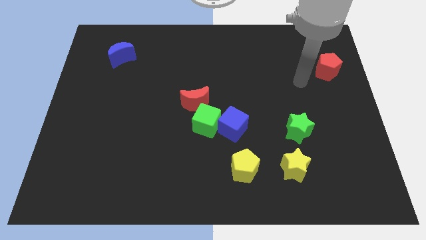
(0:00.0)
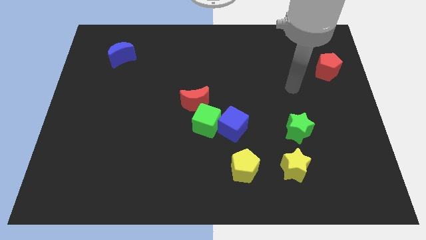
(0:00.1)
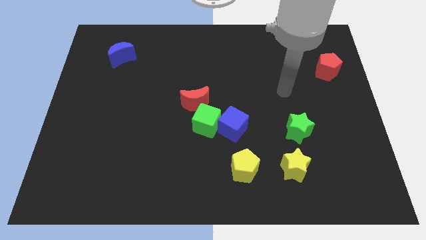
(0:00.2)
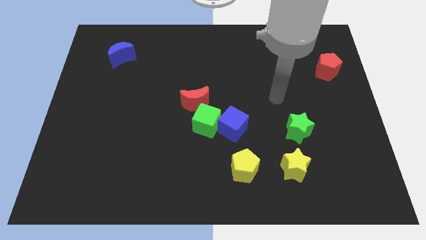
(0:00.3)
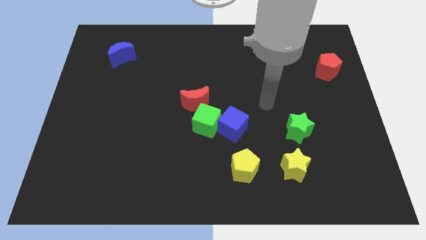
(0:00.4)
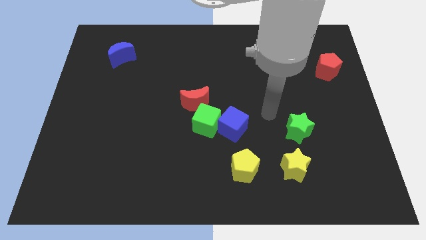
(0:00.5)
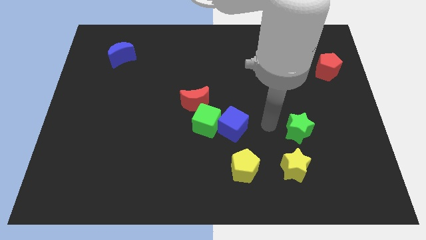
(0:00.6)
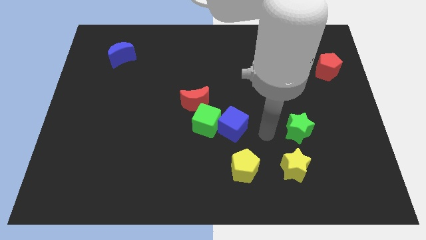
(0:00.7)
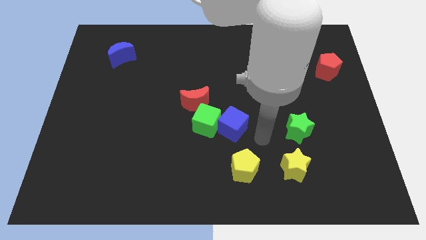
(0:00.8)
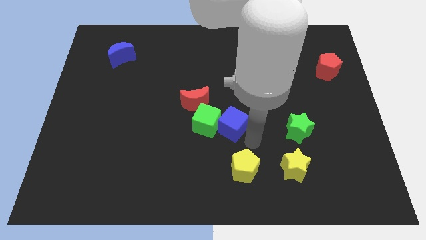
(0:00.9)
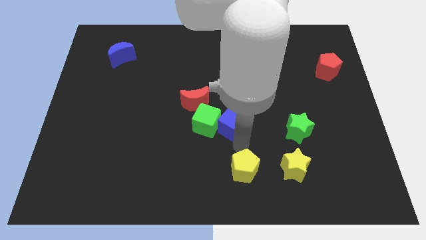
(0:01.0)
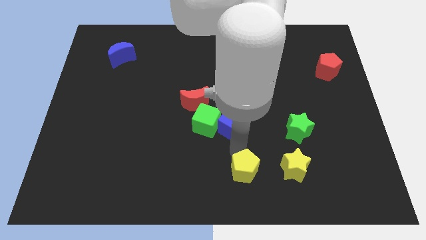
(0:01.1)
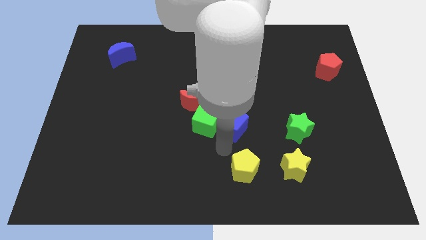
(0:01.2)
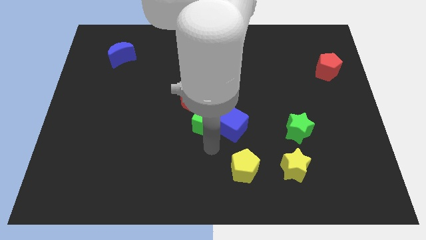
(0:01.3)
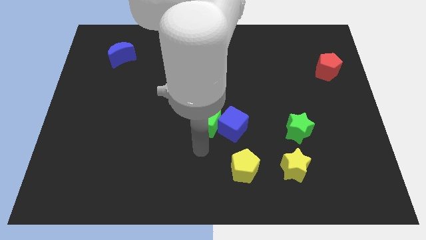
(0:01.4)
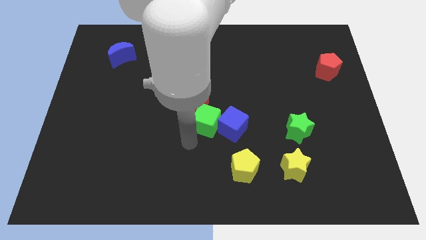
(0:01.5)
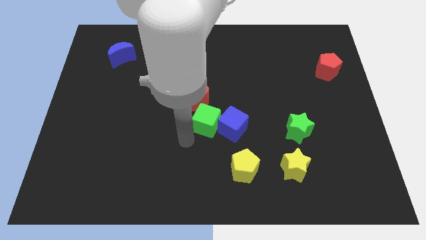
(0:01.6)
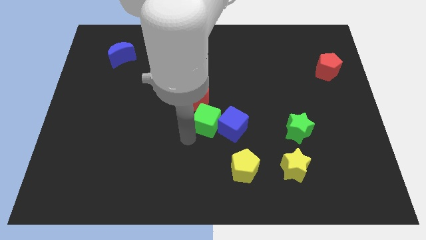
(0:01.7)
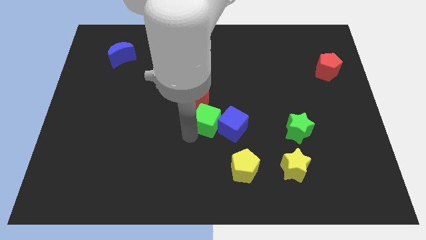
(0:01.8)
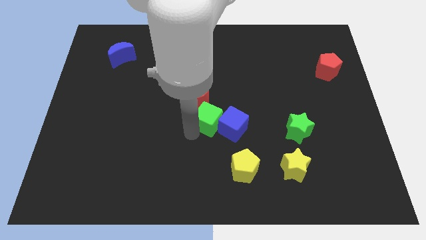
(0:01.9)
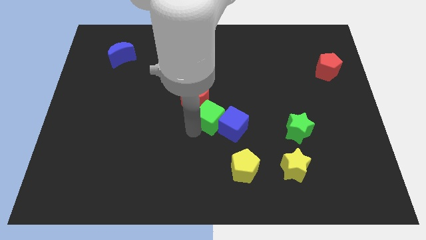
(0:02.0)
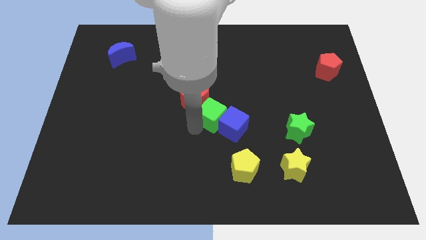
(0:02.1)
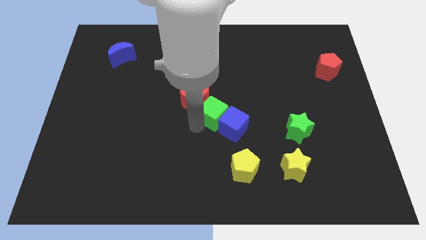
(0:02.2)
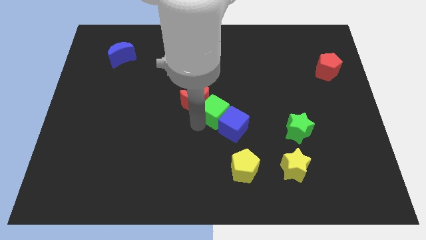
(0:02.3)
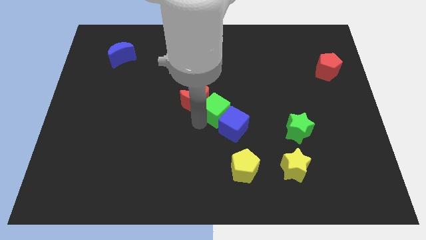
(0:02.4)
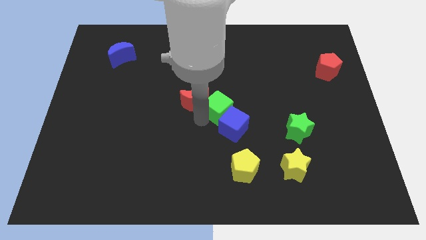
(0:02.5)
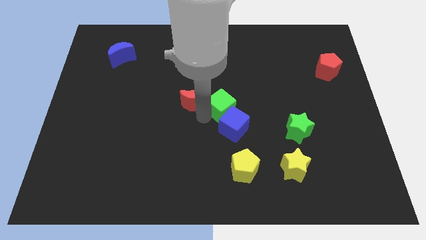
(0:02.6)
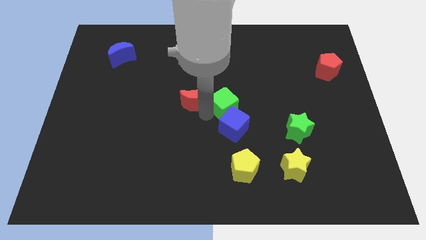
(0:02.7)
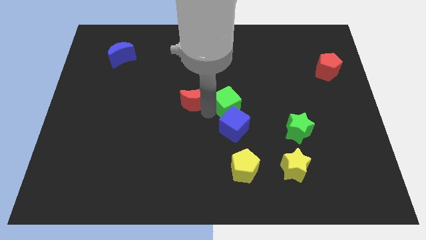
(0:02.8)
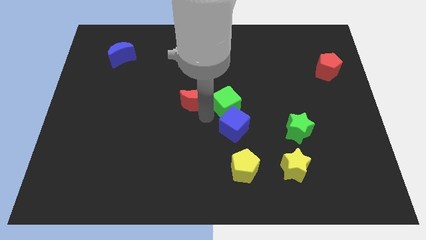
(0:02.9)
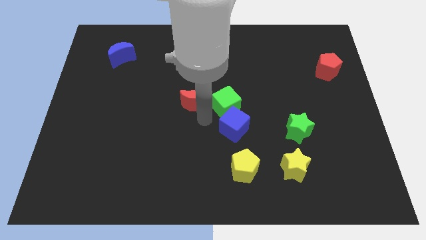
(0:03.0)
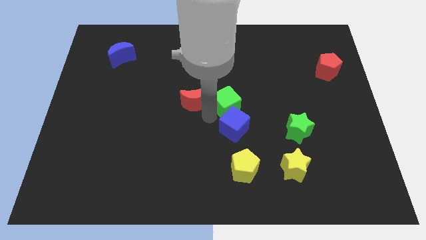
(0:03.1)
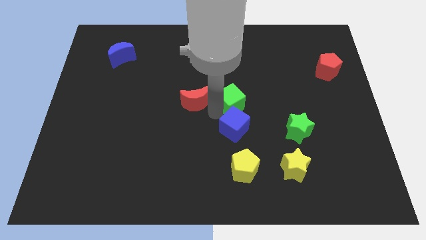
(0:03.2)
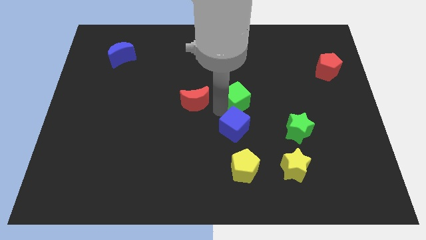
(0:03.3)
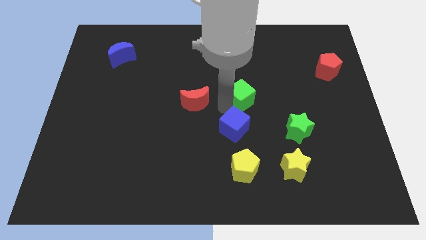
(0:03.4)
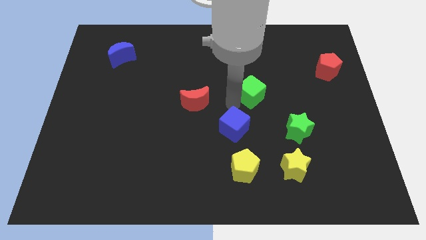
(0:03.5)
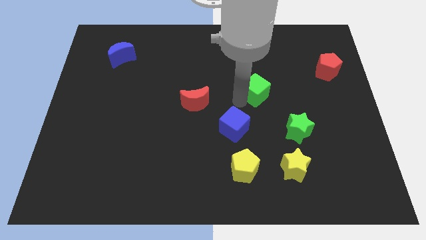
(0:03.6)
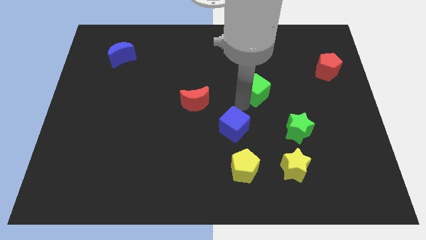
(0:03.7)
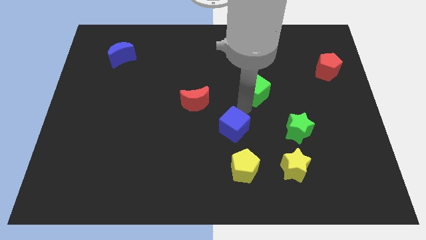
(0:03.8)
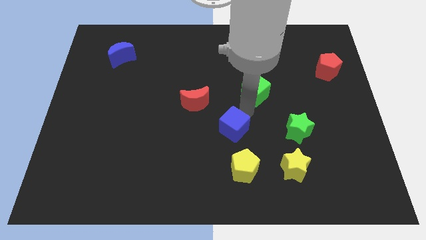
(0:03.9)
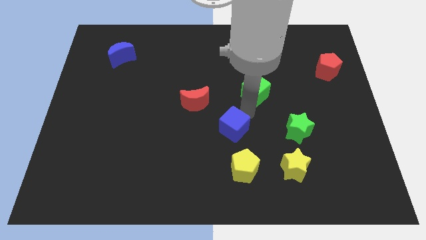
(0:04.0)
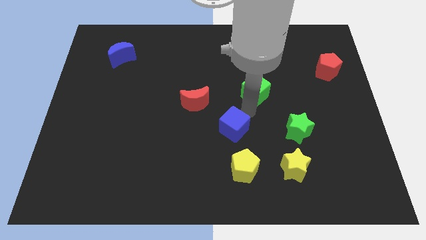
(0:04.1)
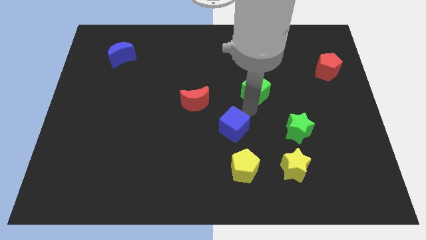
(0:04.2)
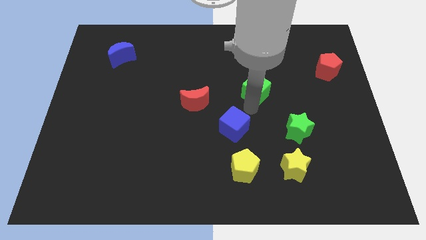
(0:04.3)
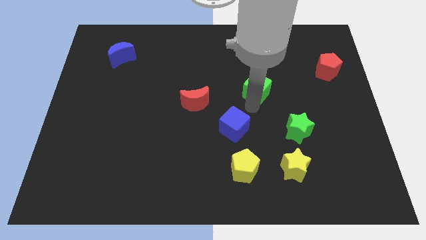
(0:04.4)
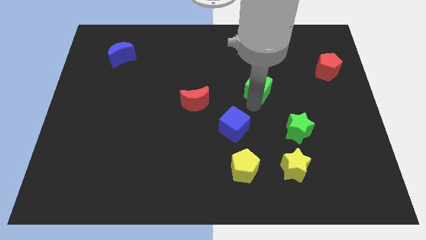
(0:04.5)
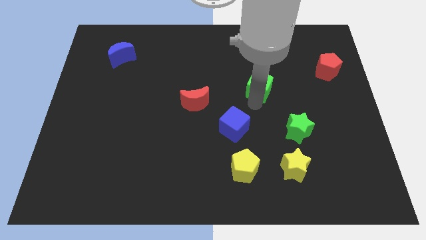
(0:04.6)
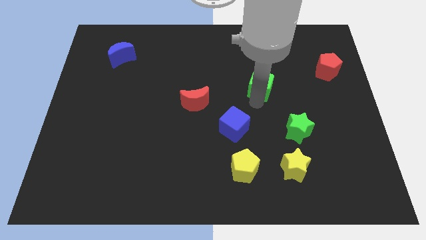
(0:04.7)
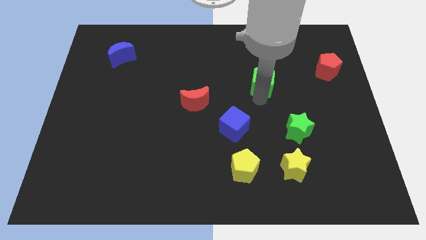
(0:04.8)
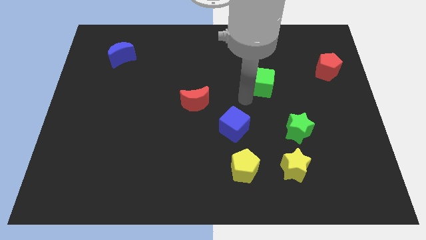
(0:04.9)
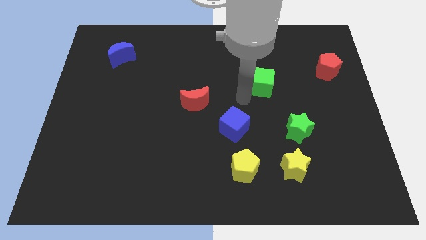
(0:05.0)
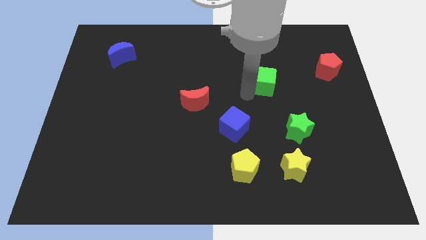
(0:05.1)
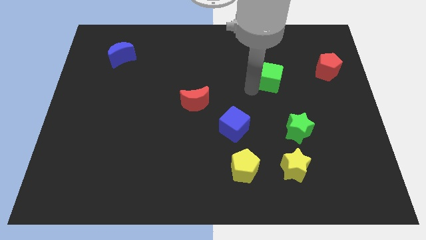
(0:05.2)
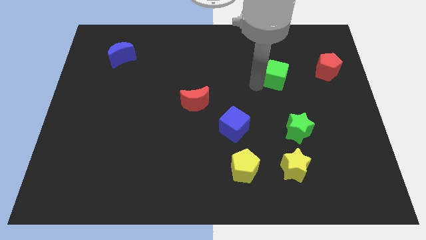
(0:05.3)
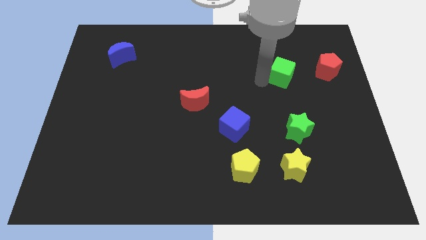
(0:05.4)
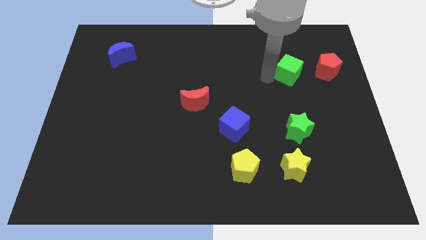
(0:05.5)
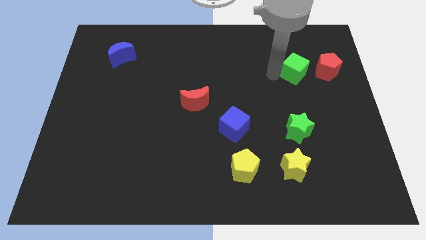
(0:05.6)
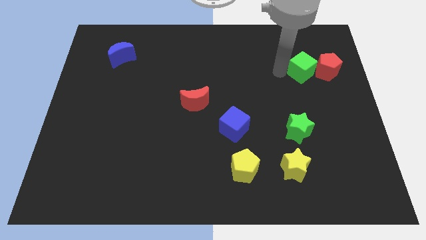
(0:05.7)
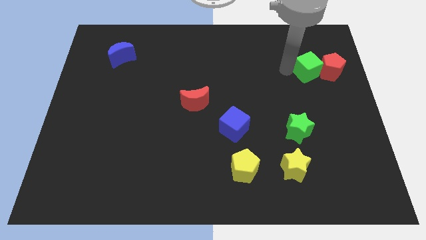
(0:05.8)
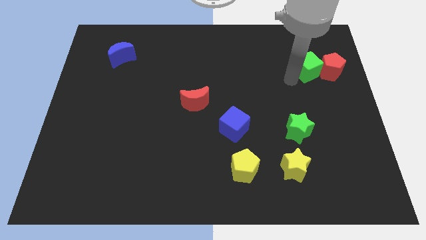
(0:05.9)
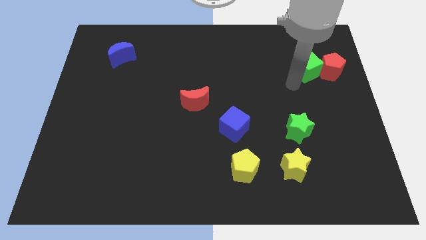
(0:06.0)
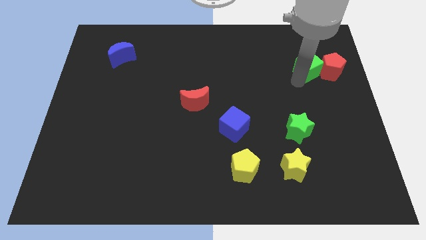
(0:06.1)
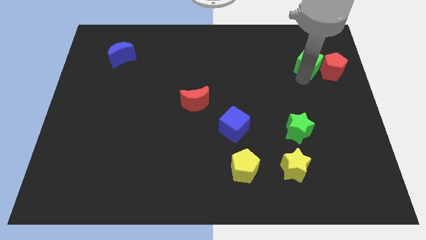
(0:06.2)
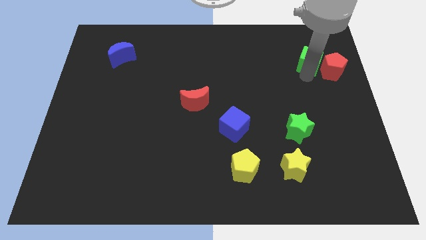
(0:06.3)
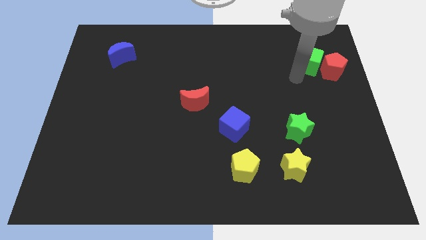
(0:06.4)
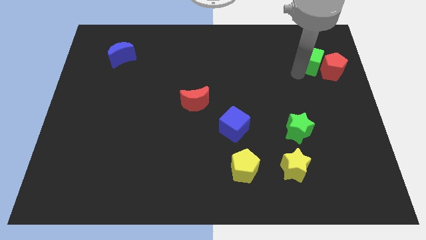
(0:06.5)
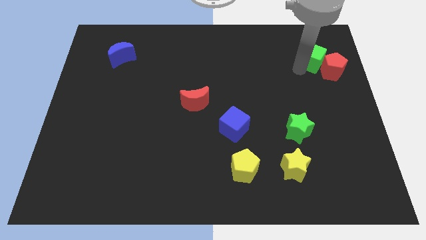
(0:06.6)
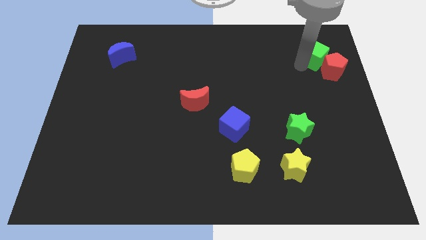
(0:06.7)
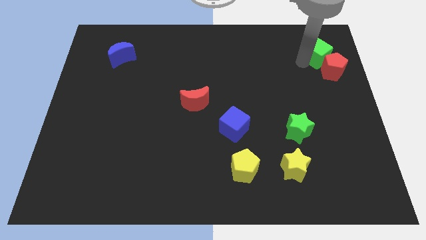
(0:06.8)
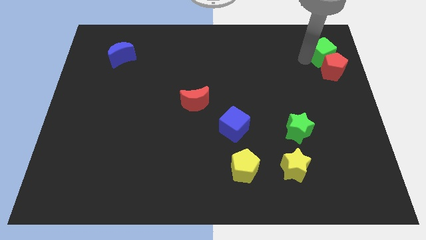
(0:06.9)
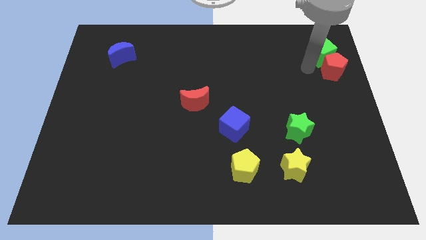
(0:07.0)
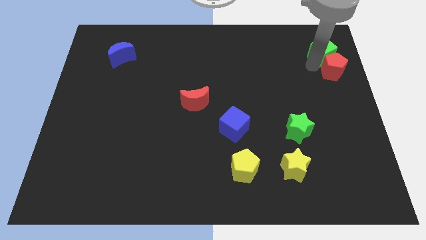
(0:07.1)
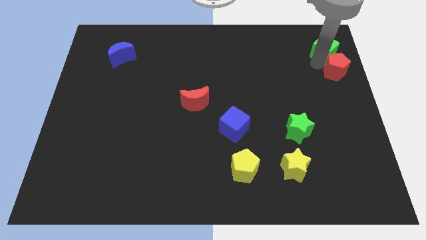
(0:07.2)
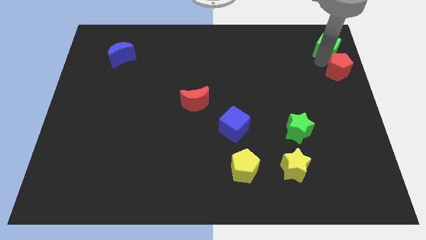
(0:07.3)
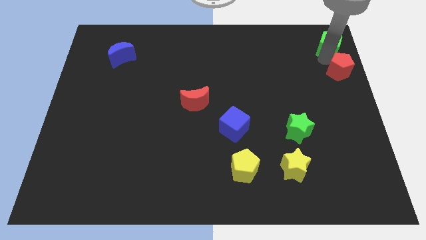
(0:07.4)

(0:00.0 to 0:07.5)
put the green cube to the top right
